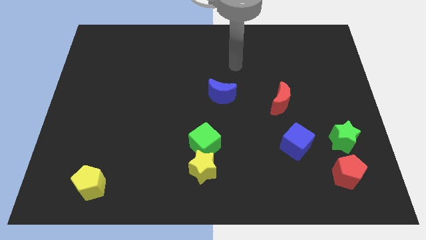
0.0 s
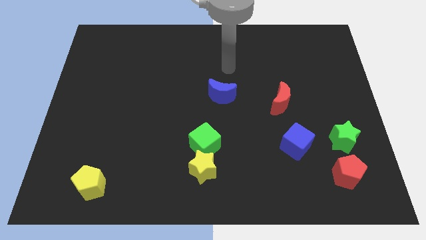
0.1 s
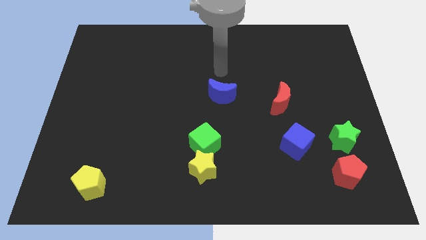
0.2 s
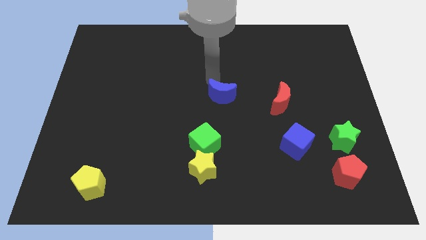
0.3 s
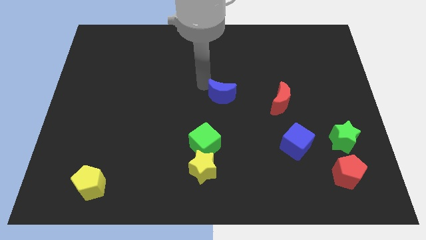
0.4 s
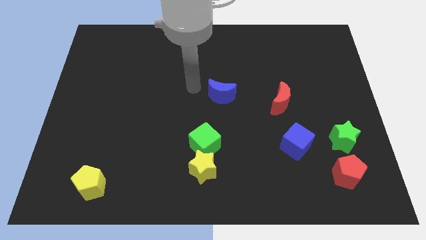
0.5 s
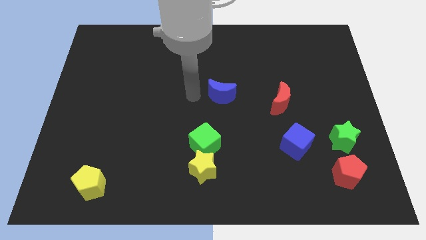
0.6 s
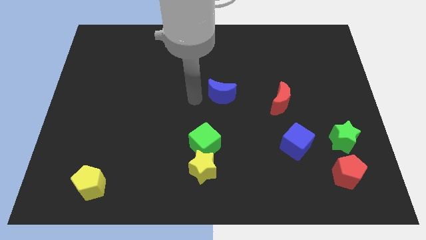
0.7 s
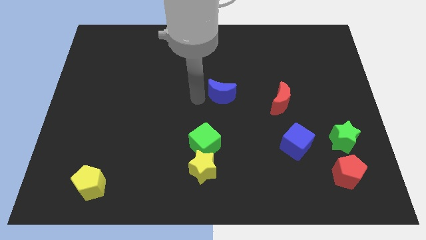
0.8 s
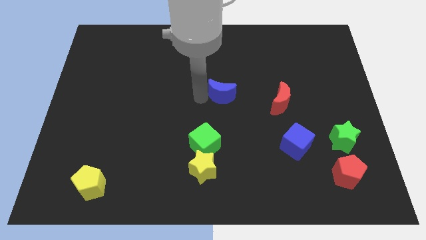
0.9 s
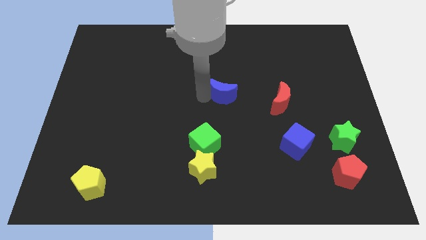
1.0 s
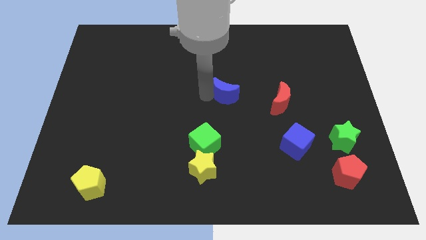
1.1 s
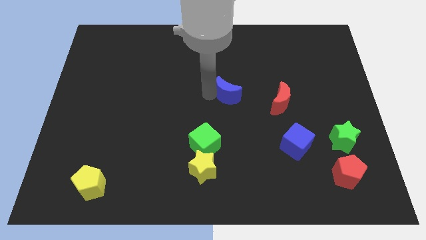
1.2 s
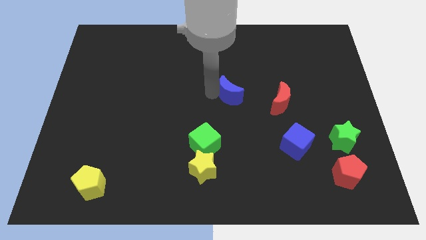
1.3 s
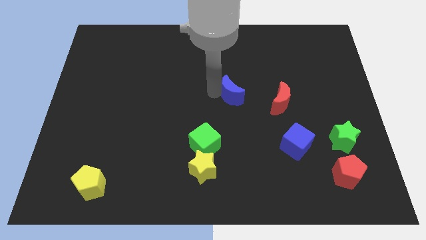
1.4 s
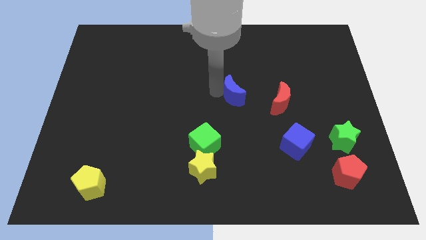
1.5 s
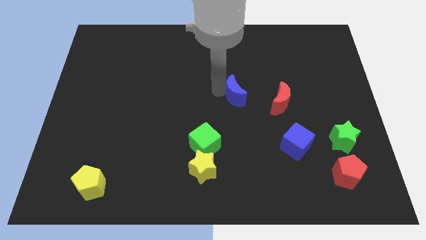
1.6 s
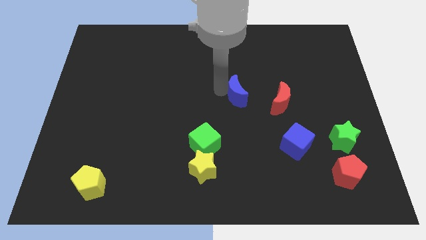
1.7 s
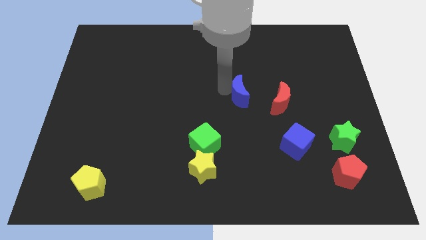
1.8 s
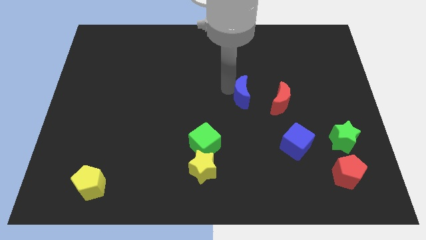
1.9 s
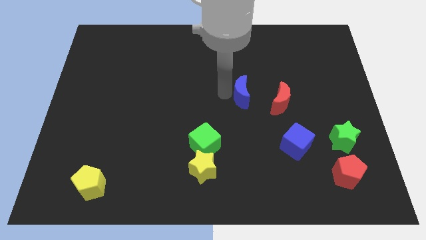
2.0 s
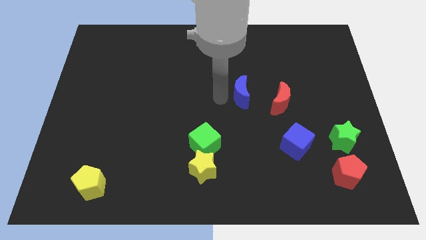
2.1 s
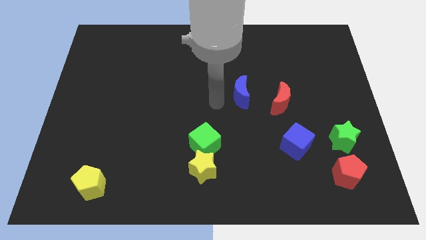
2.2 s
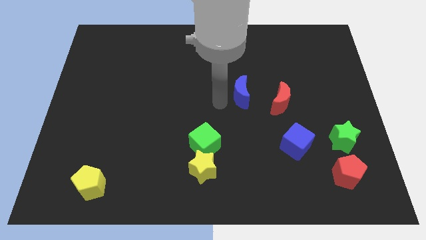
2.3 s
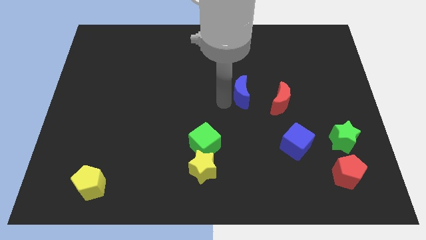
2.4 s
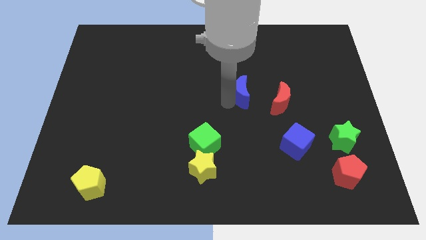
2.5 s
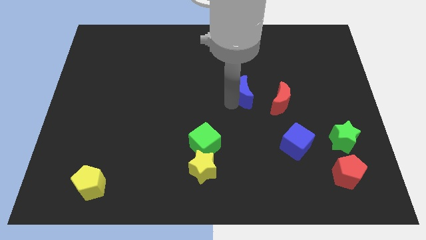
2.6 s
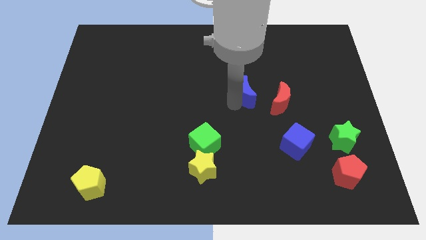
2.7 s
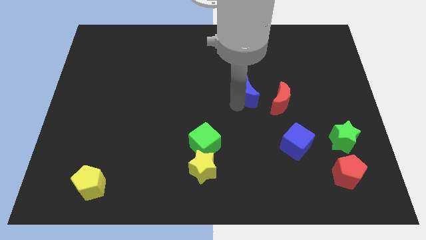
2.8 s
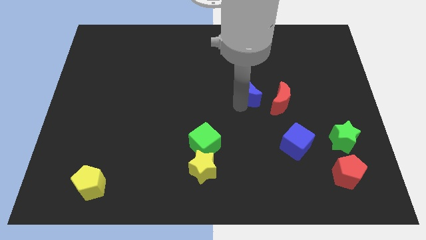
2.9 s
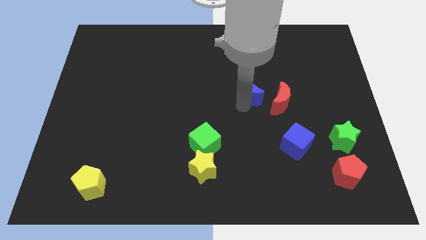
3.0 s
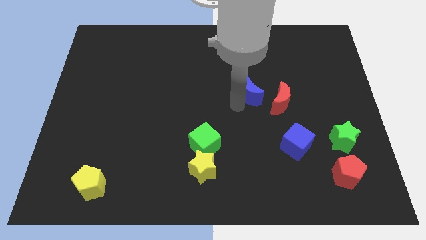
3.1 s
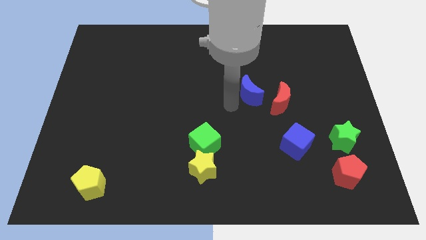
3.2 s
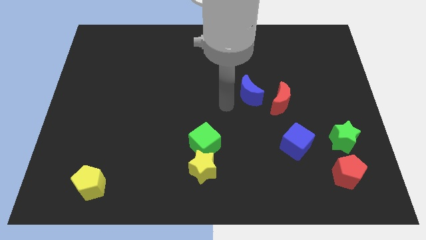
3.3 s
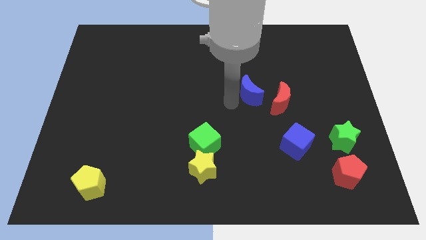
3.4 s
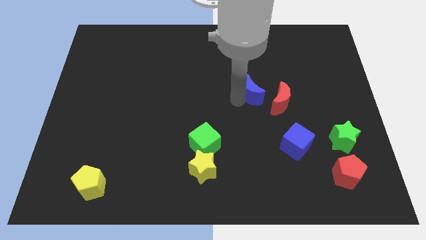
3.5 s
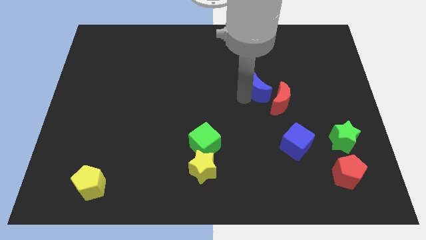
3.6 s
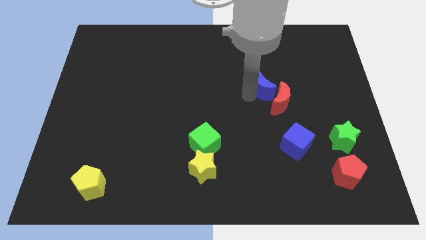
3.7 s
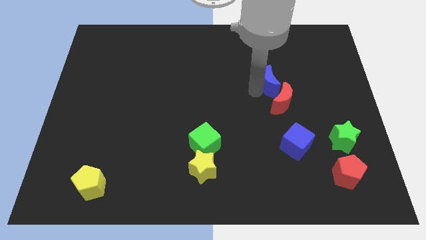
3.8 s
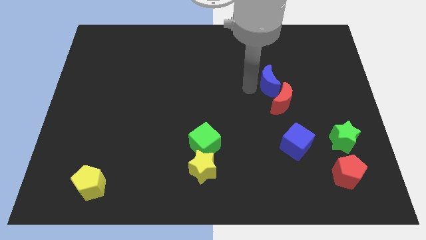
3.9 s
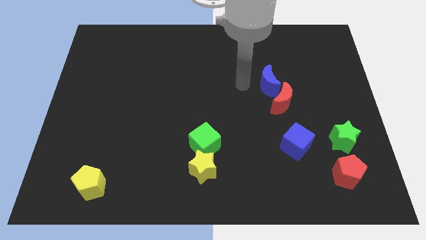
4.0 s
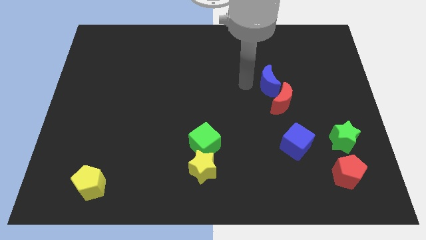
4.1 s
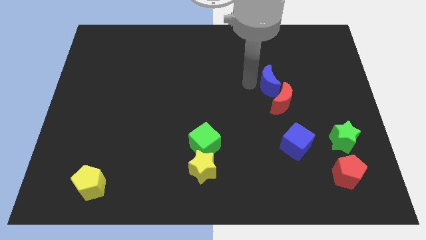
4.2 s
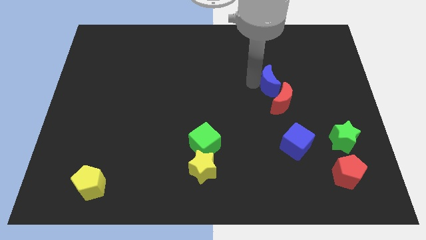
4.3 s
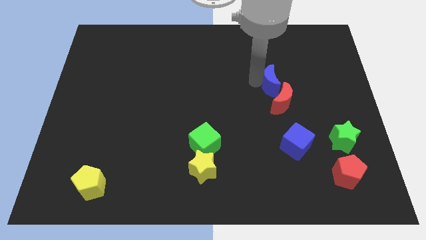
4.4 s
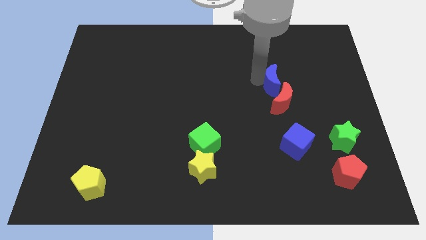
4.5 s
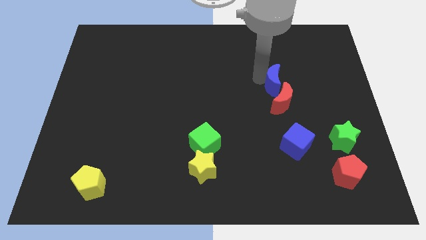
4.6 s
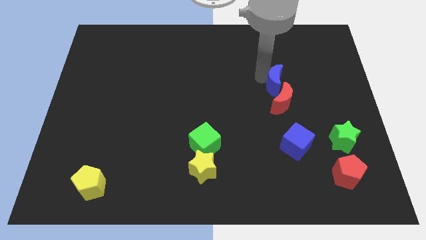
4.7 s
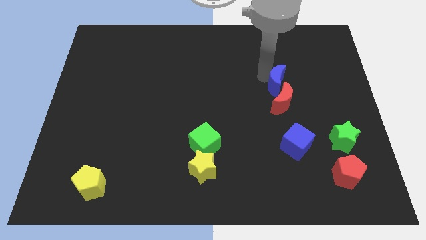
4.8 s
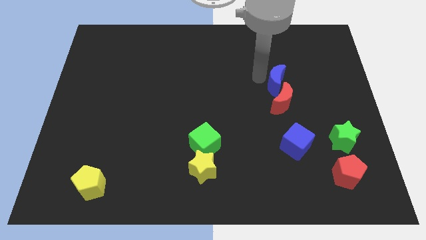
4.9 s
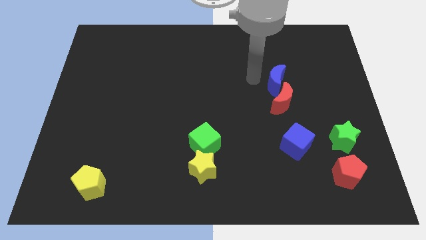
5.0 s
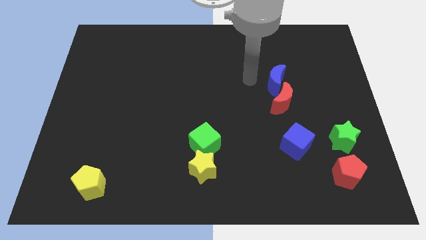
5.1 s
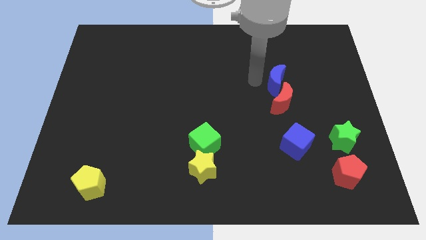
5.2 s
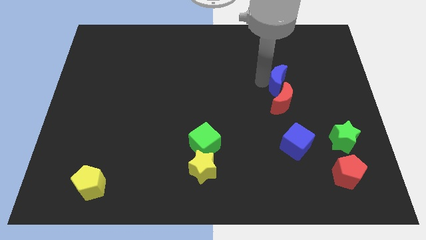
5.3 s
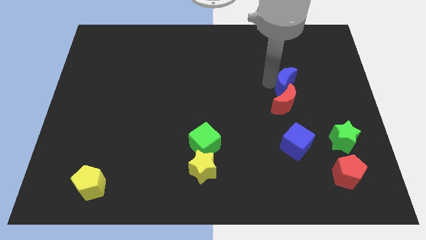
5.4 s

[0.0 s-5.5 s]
move the blue moon to the top right side of the red moon

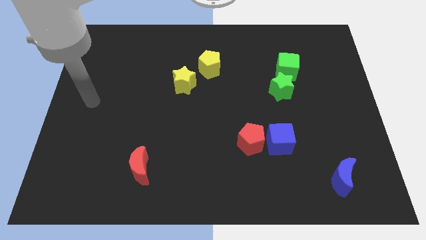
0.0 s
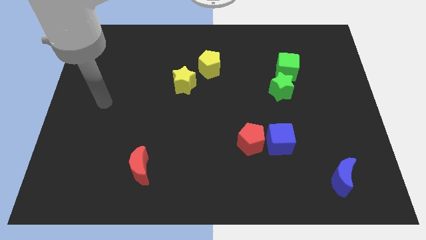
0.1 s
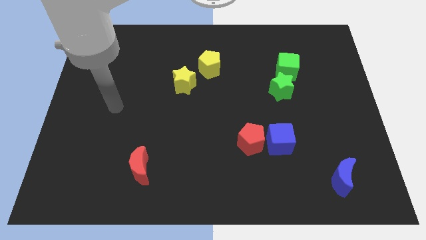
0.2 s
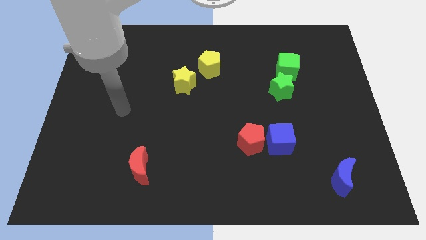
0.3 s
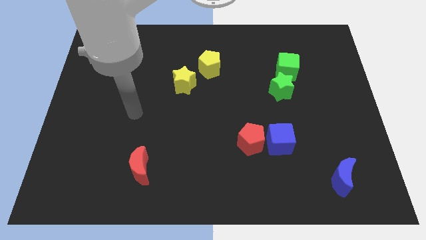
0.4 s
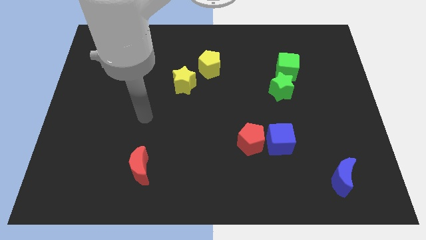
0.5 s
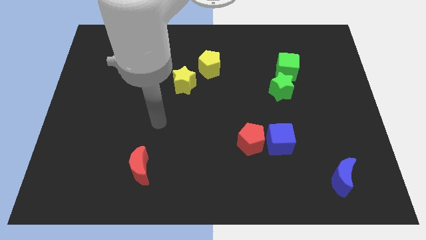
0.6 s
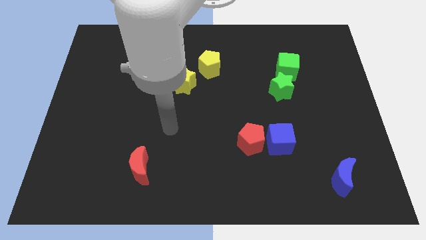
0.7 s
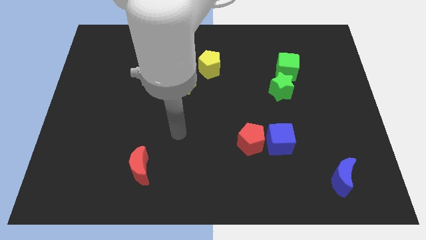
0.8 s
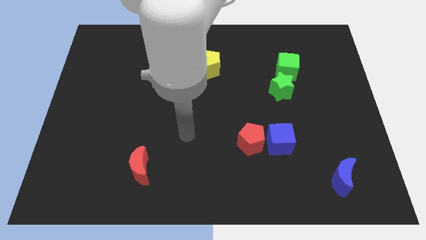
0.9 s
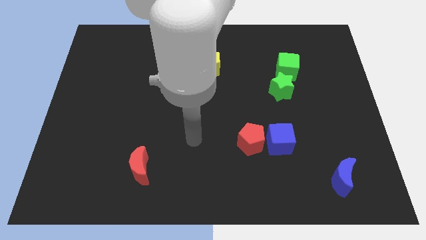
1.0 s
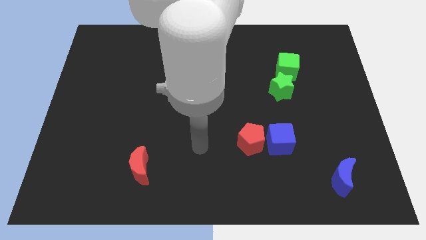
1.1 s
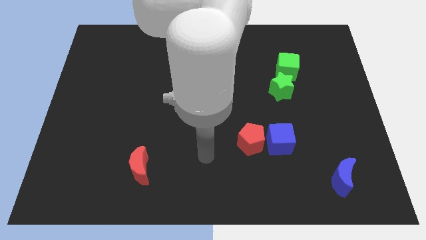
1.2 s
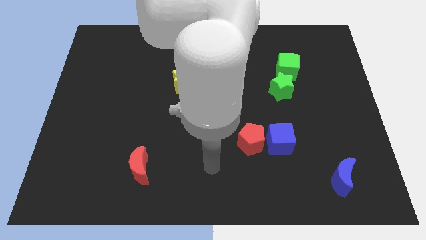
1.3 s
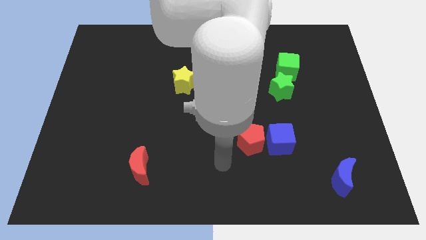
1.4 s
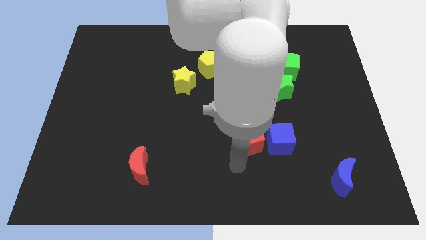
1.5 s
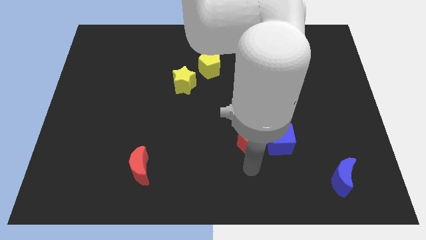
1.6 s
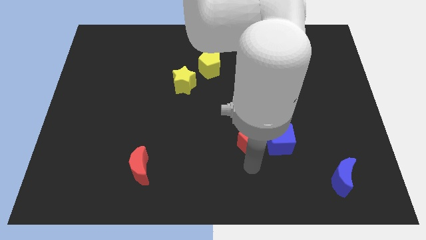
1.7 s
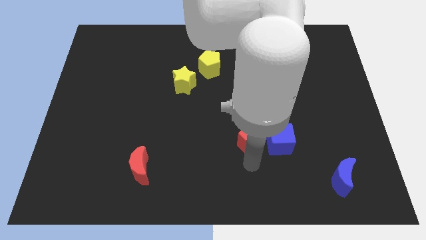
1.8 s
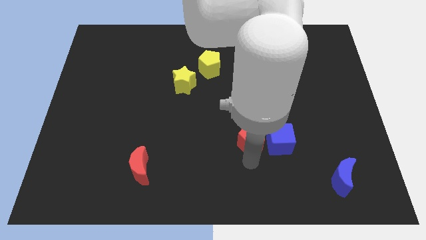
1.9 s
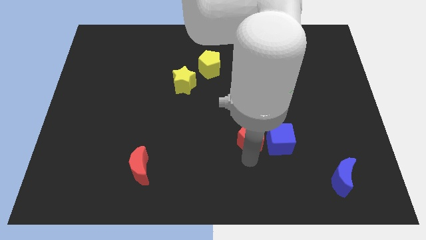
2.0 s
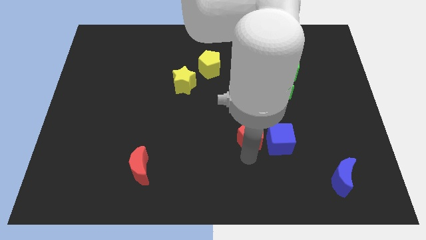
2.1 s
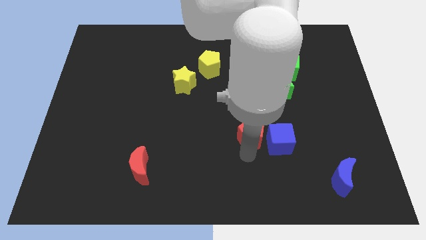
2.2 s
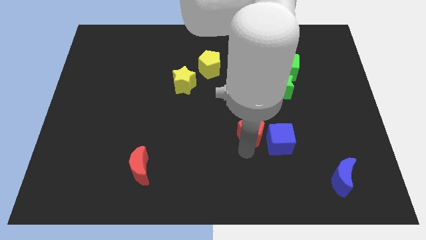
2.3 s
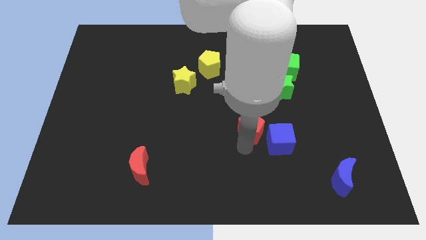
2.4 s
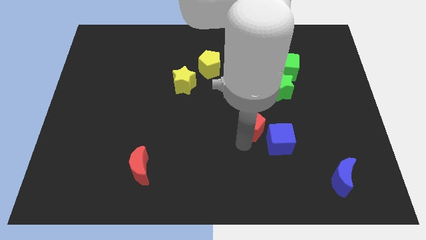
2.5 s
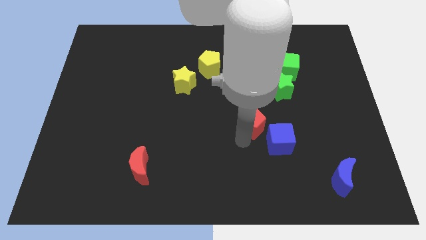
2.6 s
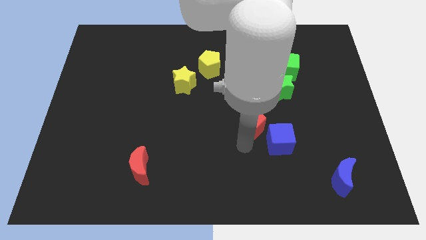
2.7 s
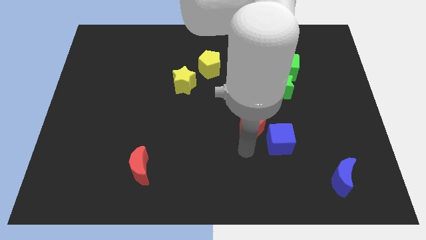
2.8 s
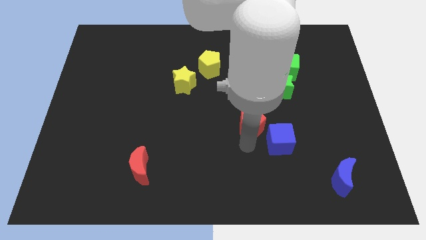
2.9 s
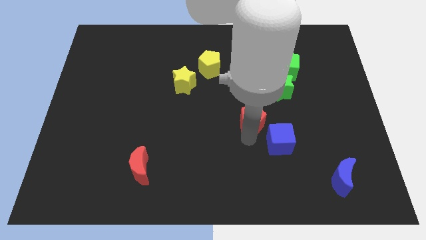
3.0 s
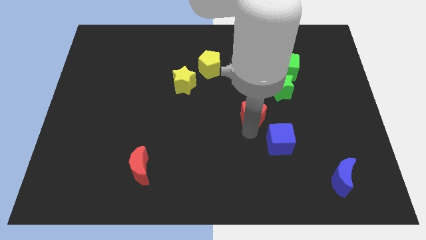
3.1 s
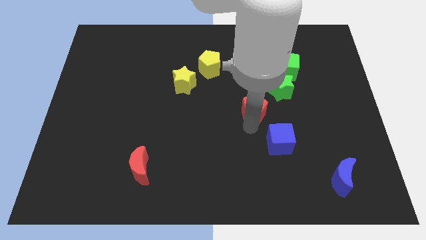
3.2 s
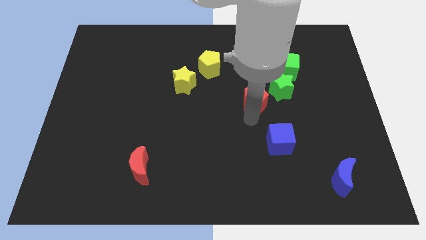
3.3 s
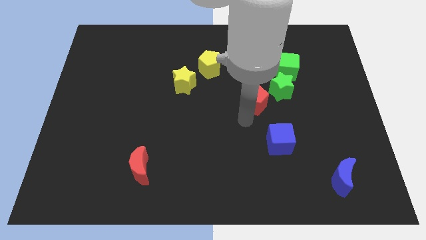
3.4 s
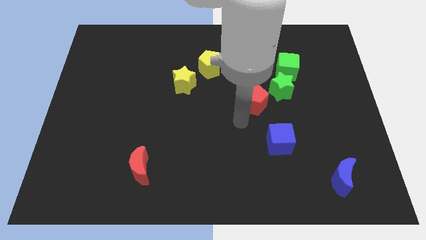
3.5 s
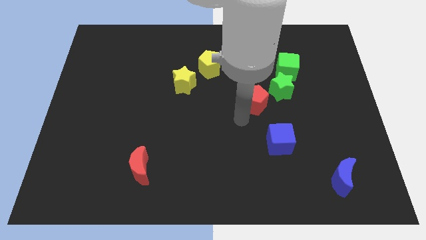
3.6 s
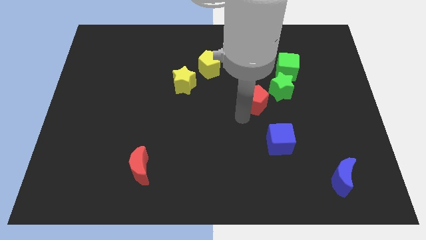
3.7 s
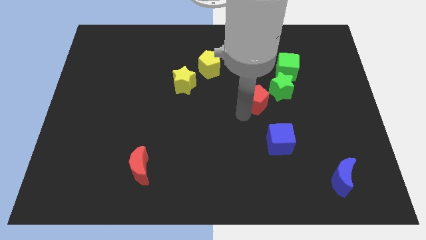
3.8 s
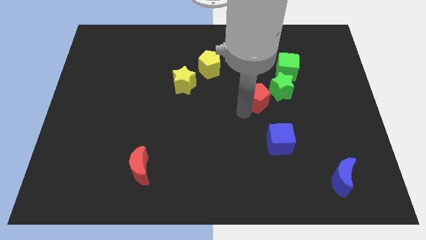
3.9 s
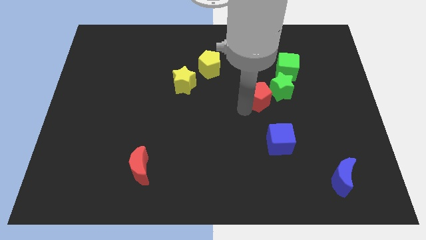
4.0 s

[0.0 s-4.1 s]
put the red pentagon diagonally down and to the left of the green cube
